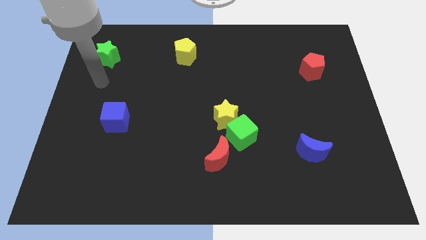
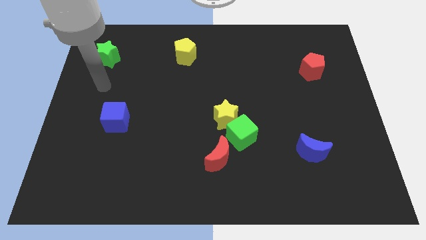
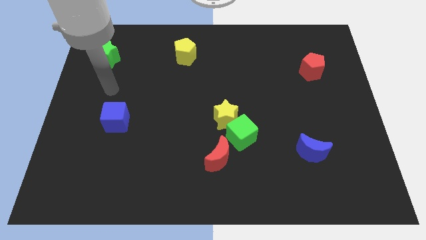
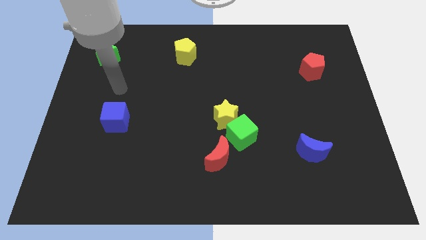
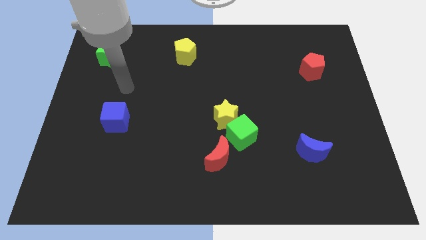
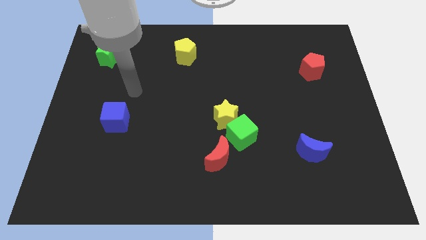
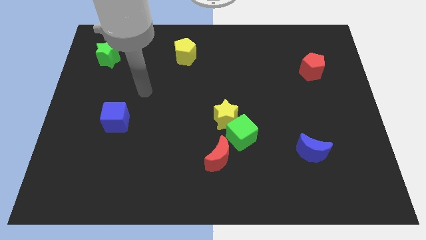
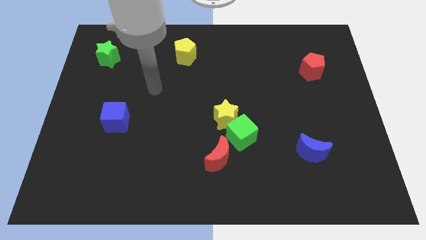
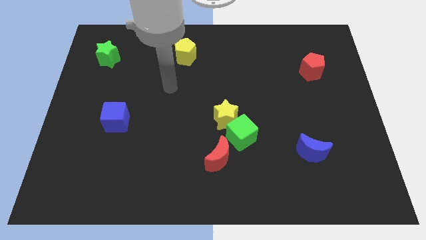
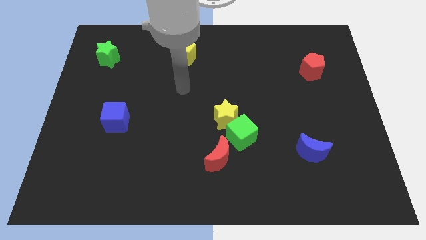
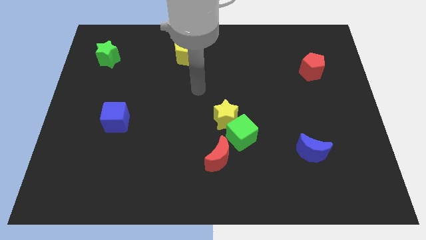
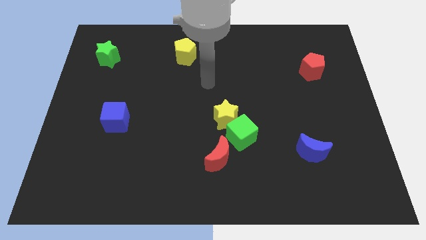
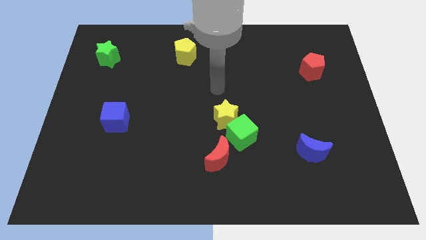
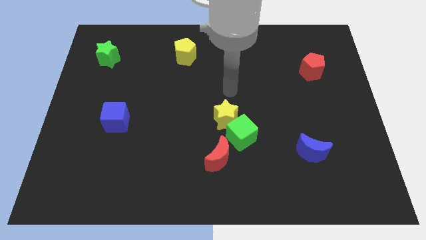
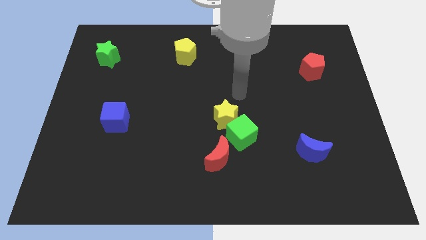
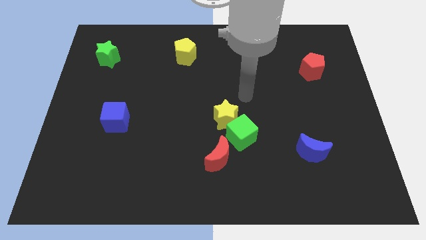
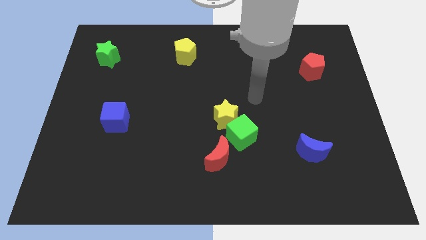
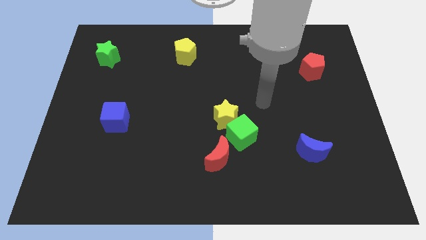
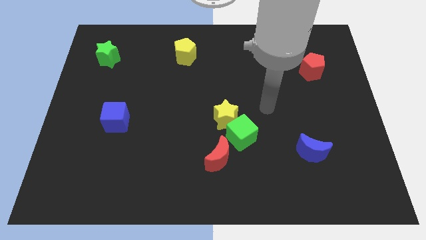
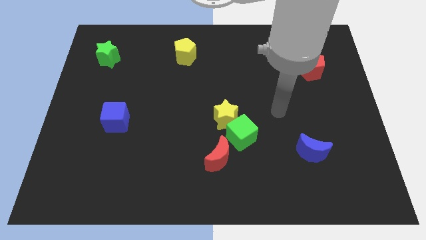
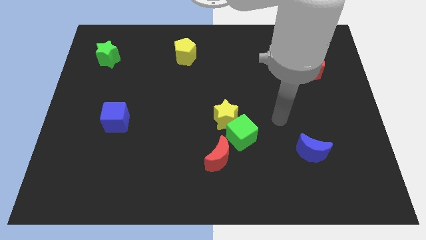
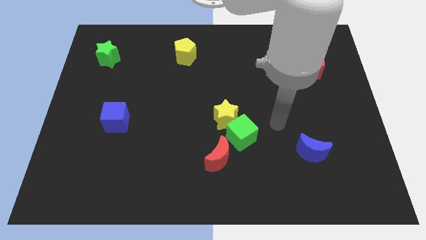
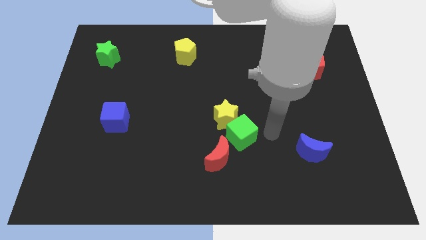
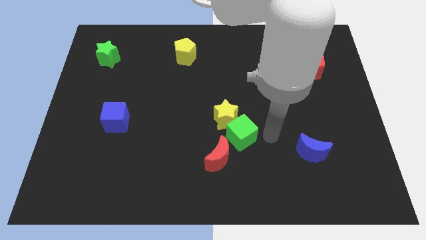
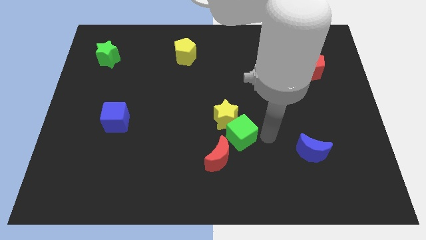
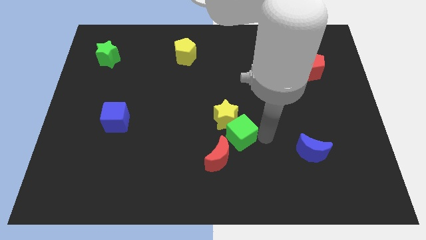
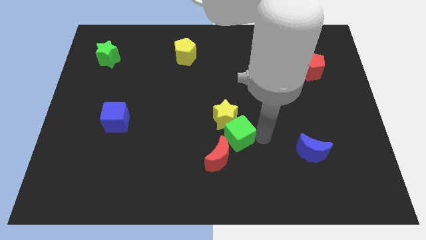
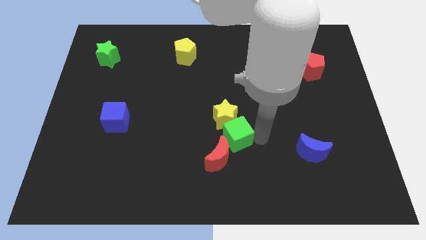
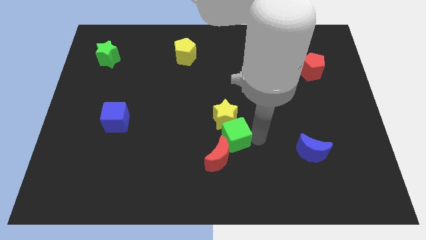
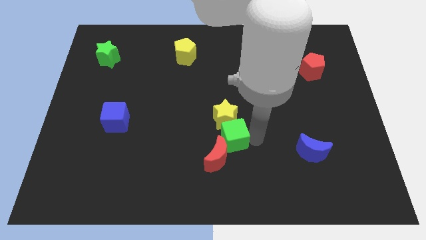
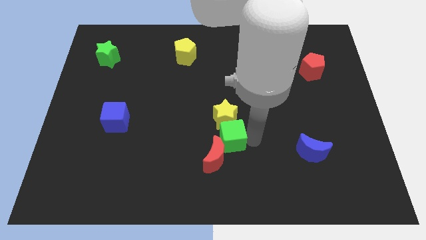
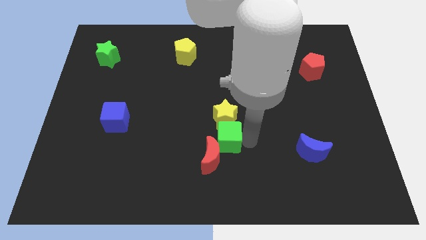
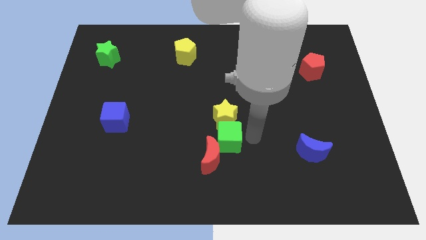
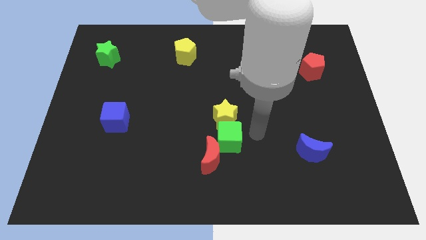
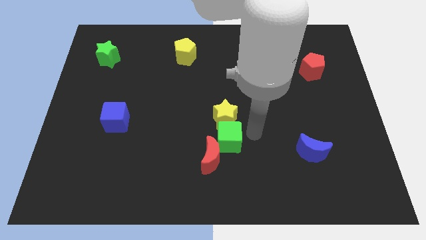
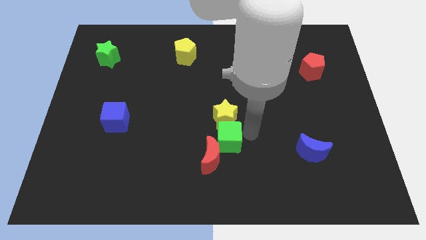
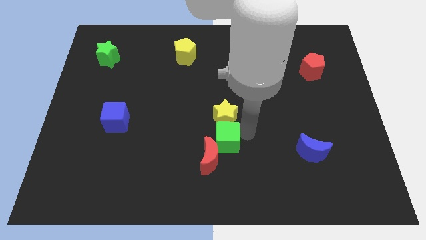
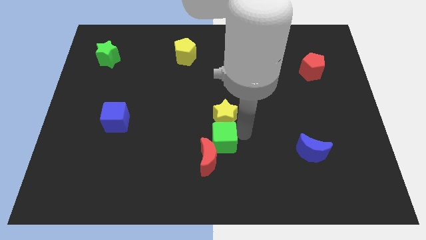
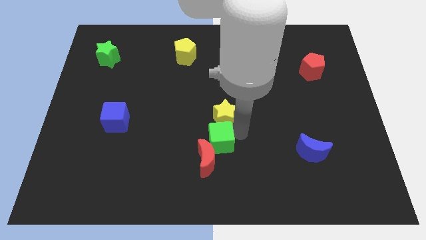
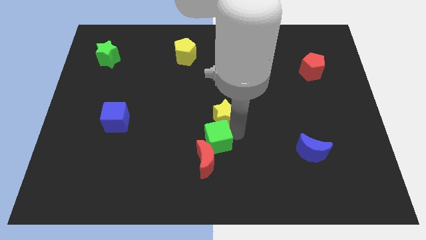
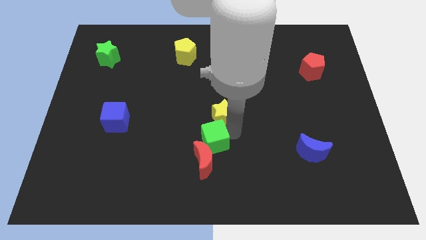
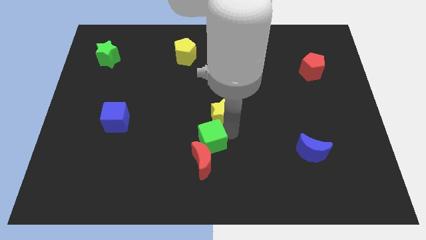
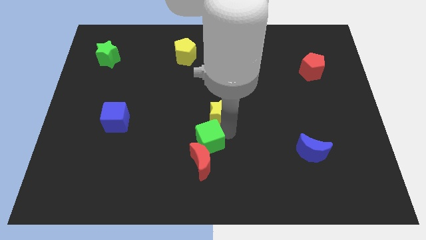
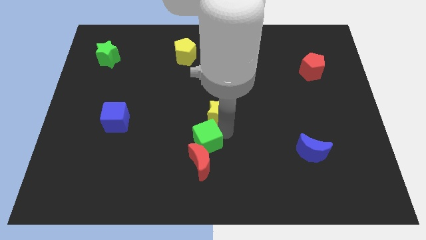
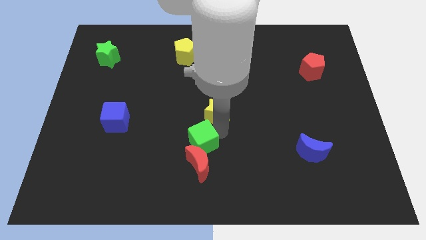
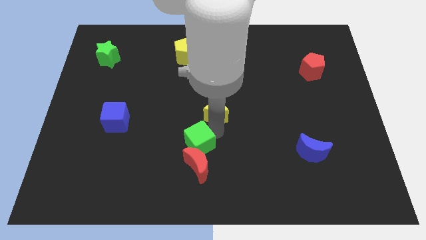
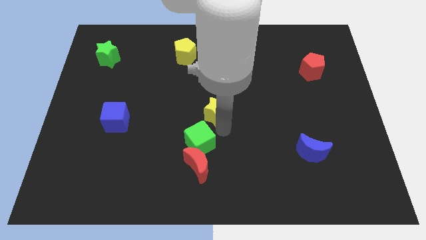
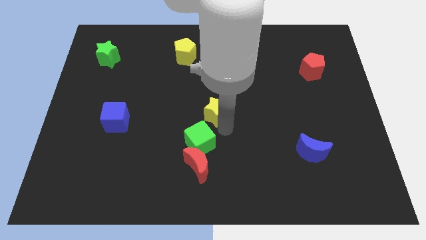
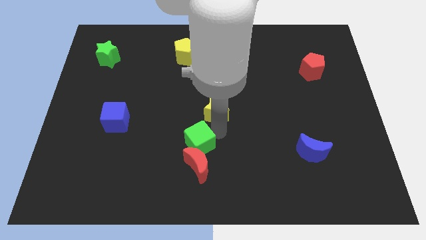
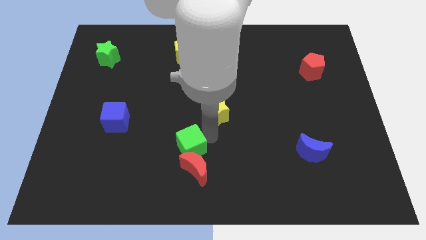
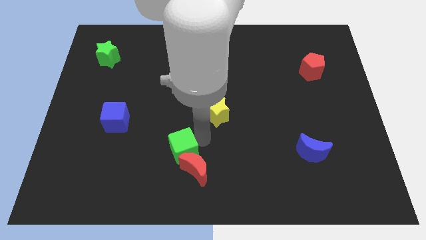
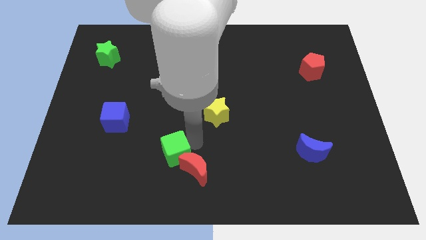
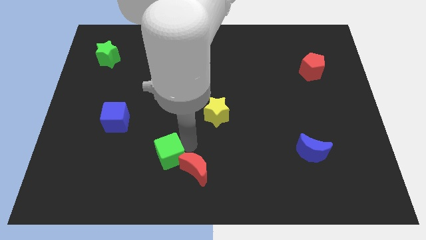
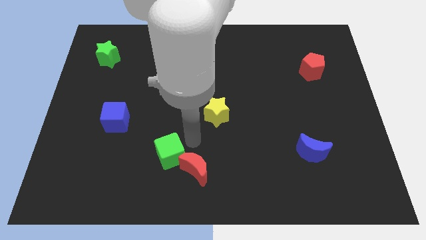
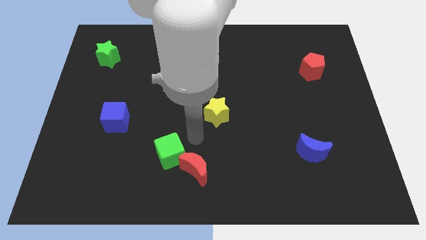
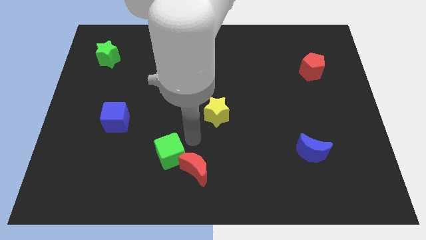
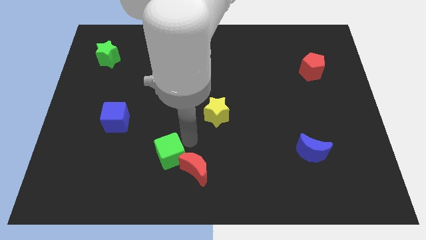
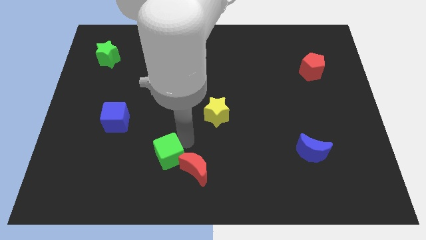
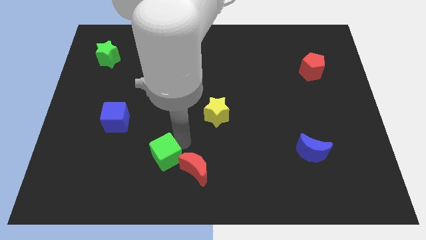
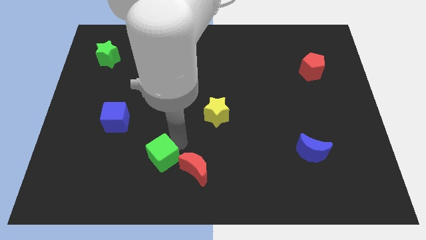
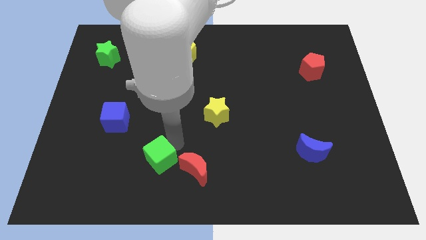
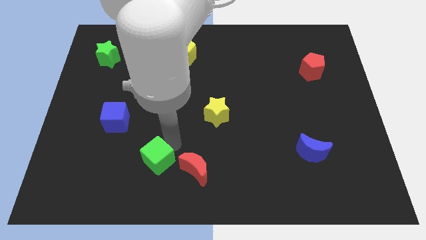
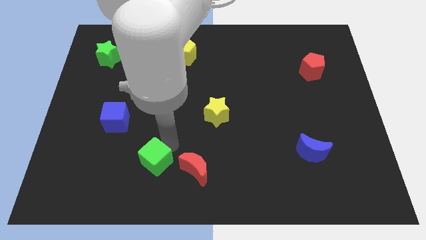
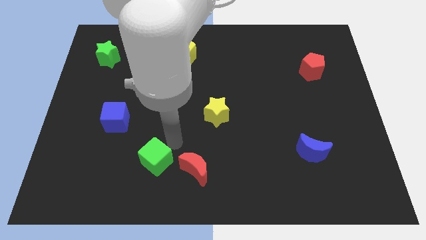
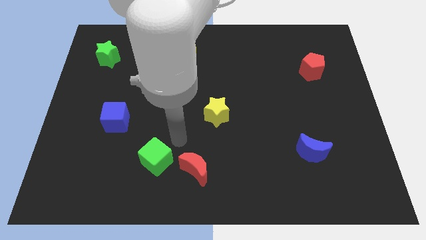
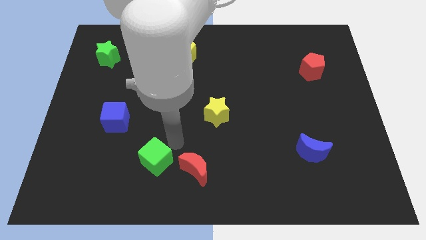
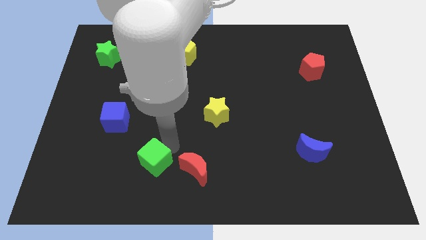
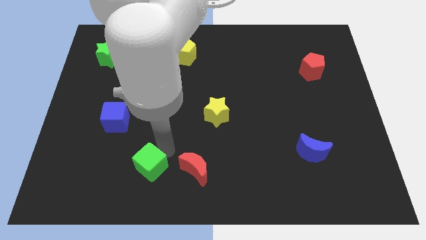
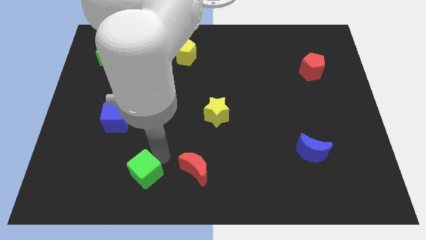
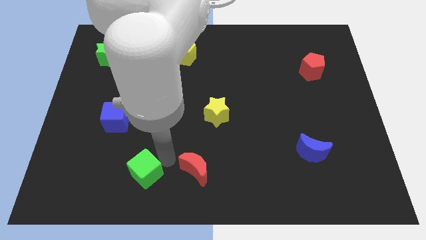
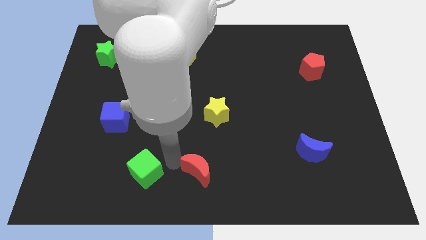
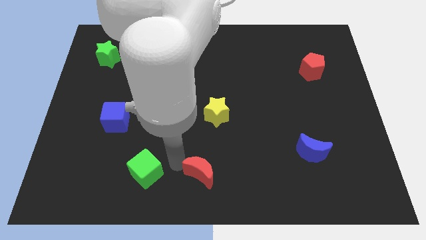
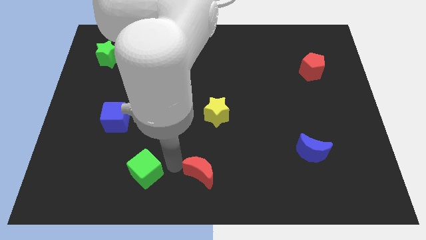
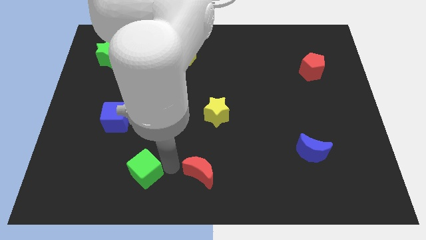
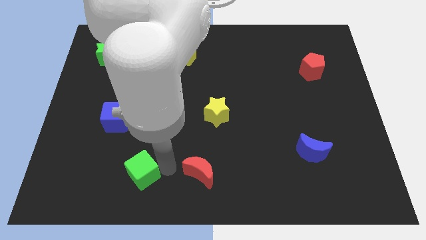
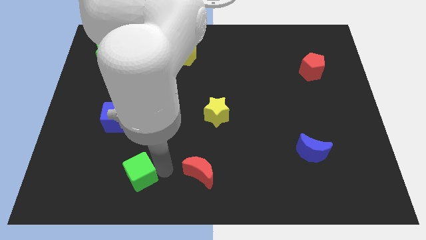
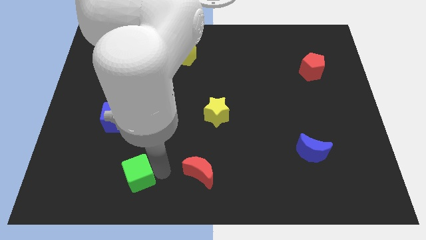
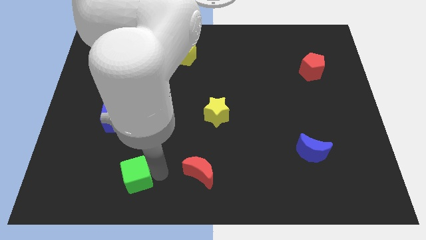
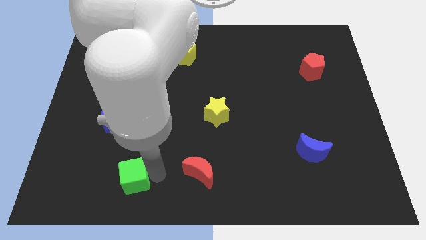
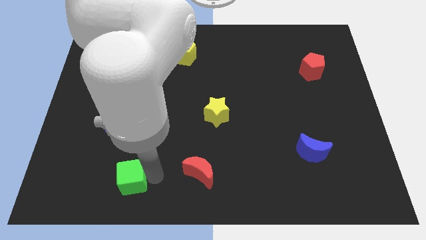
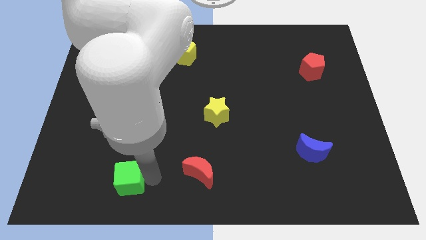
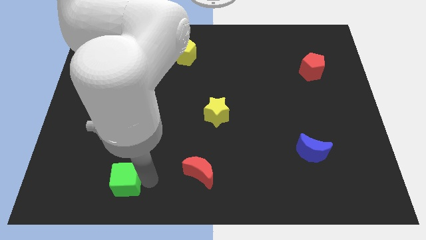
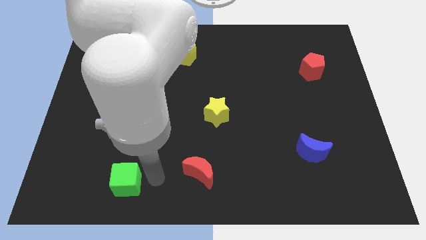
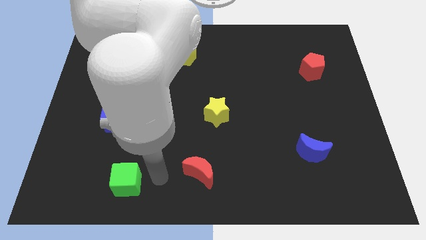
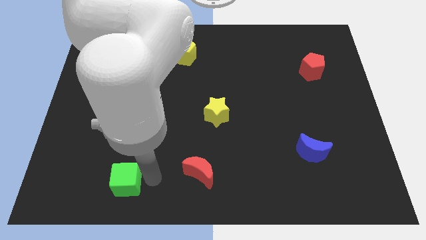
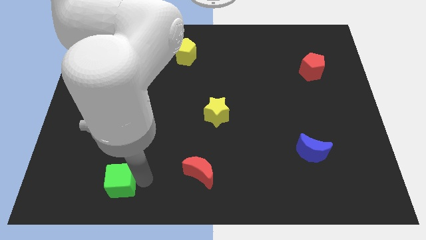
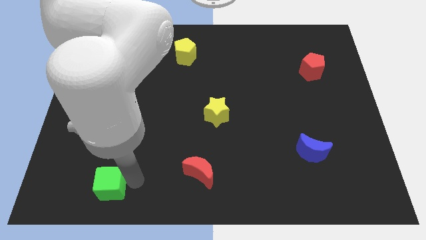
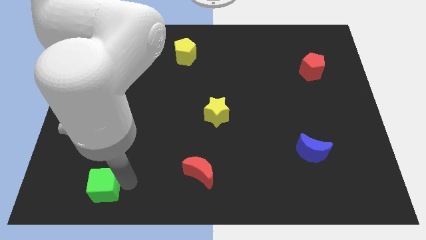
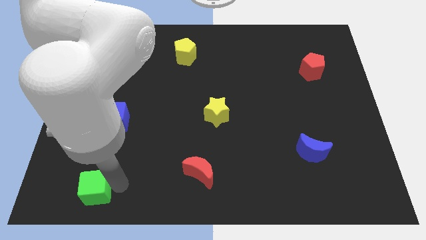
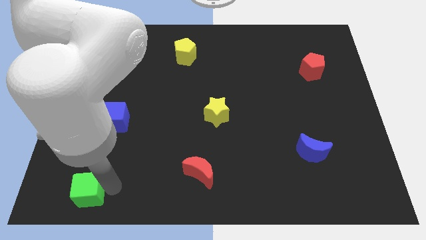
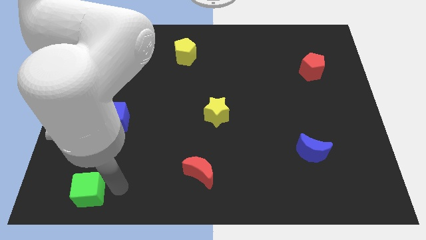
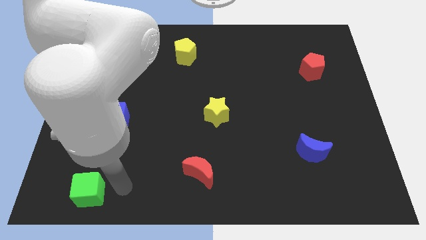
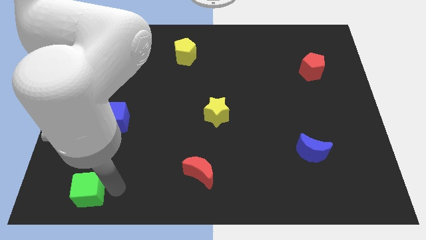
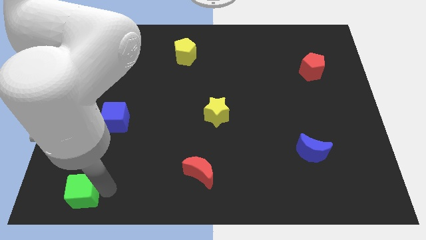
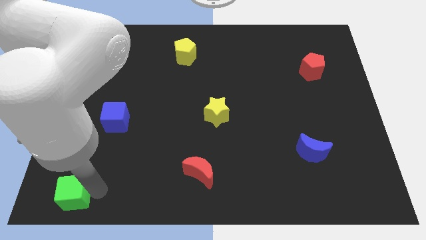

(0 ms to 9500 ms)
move the green cube to the bottom left
